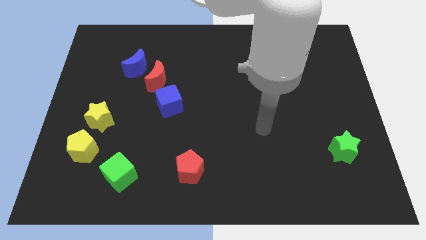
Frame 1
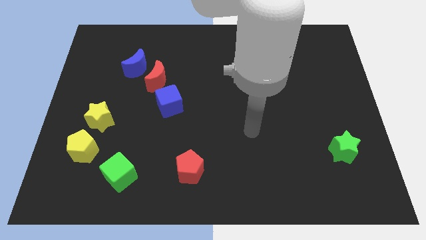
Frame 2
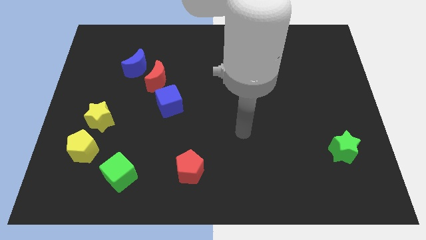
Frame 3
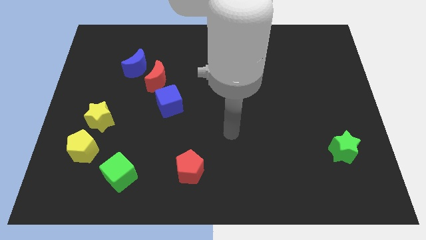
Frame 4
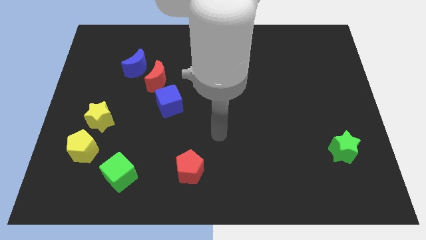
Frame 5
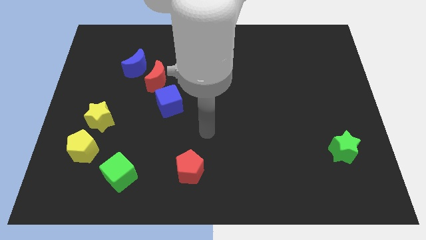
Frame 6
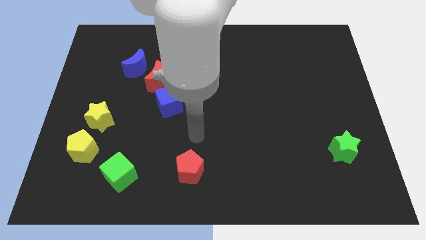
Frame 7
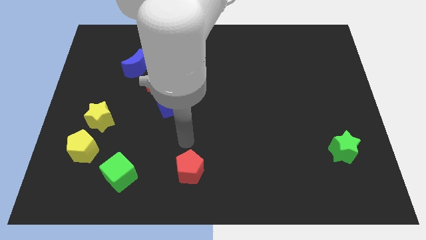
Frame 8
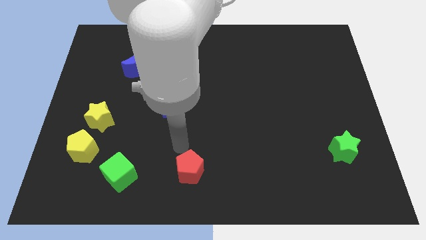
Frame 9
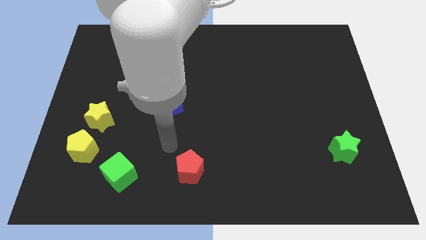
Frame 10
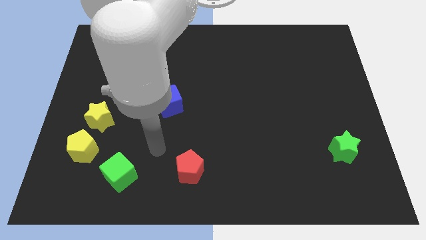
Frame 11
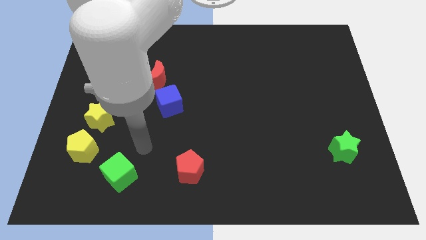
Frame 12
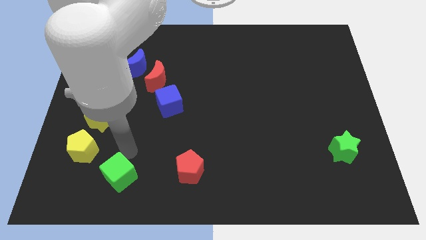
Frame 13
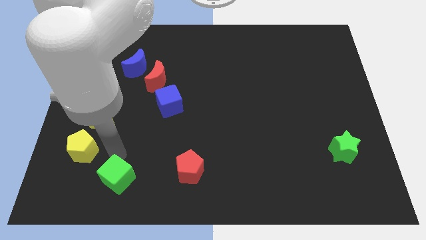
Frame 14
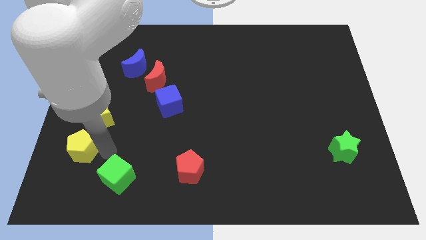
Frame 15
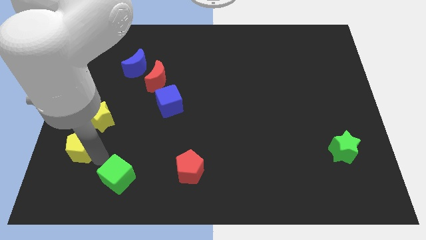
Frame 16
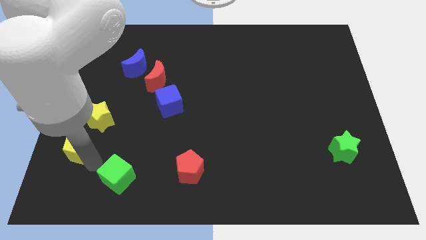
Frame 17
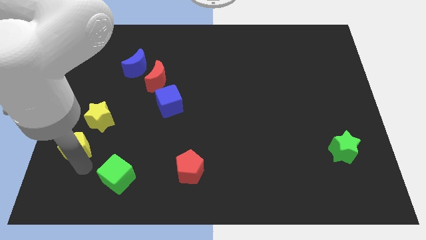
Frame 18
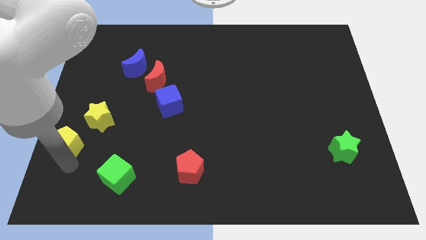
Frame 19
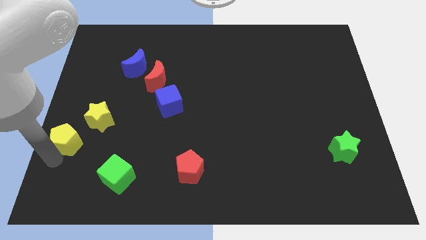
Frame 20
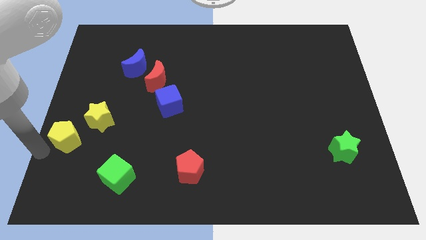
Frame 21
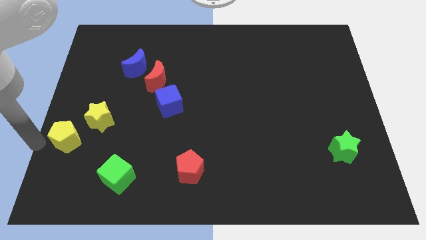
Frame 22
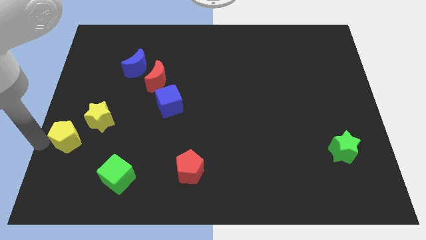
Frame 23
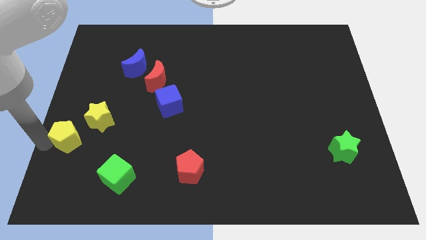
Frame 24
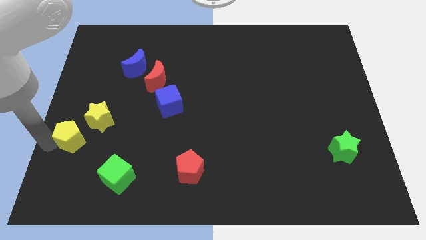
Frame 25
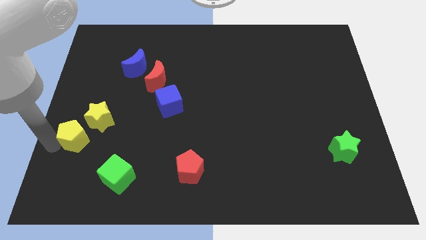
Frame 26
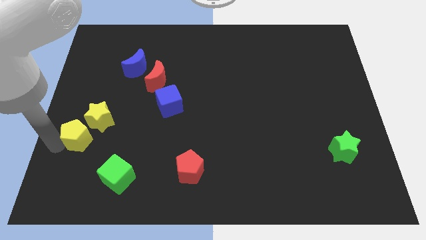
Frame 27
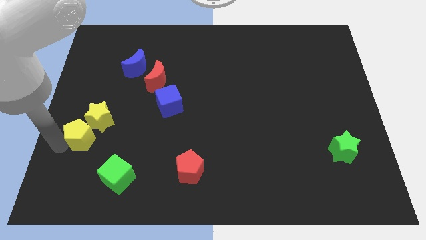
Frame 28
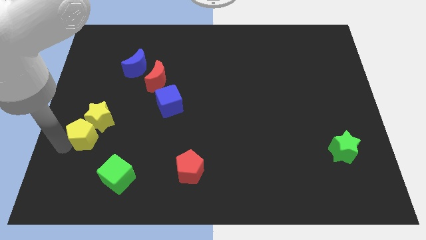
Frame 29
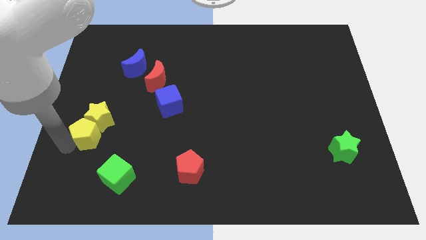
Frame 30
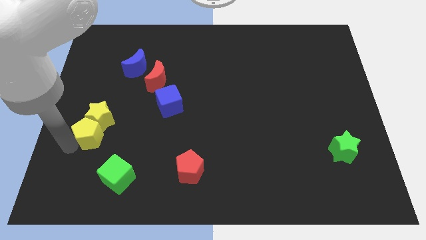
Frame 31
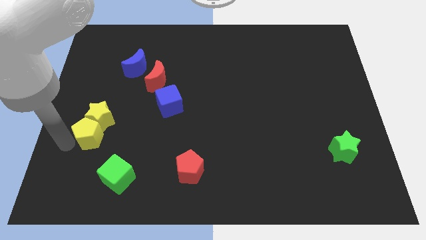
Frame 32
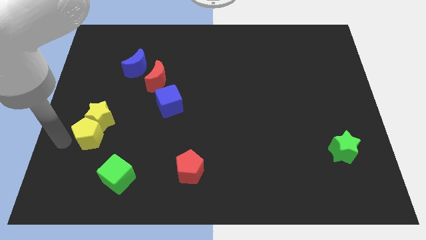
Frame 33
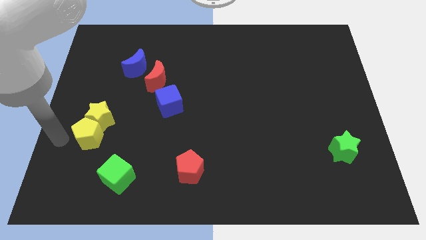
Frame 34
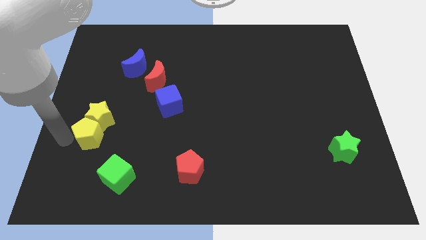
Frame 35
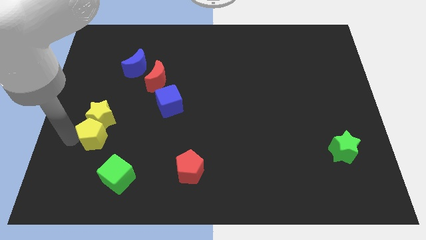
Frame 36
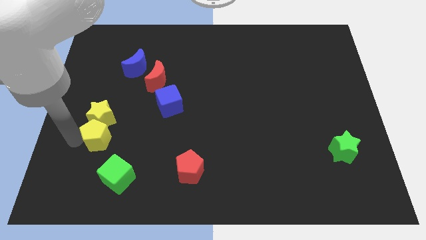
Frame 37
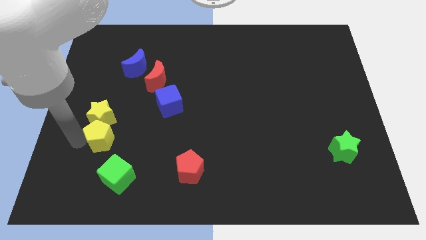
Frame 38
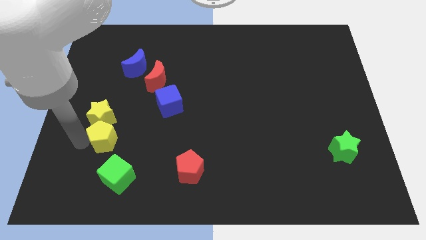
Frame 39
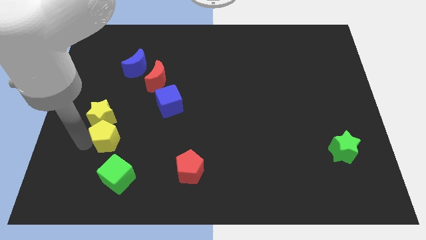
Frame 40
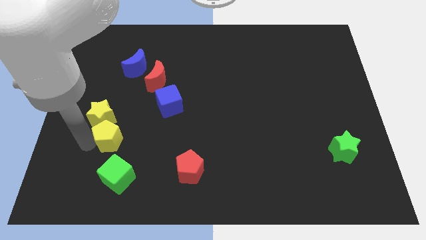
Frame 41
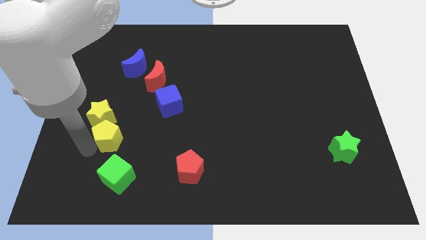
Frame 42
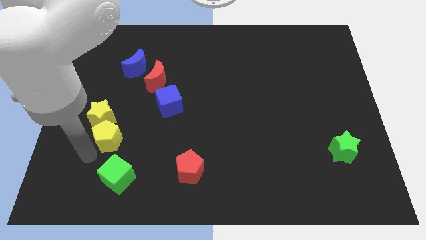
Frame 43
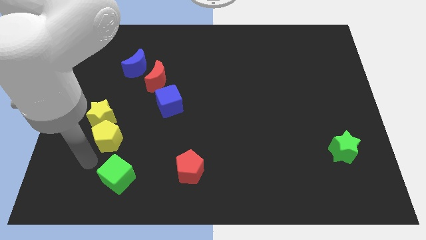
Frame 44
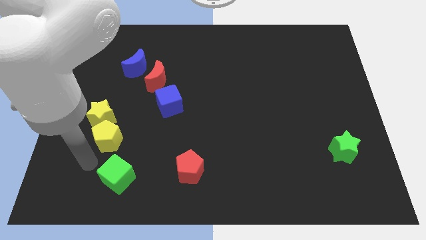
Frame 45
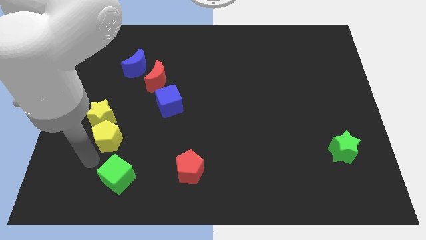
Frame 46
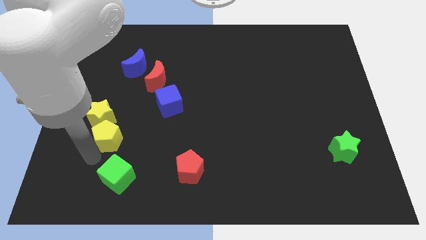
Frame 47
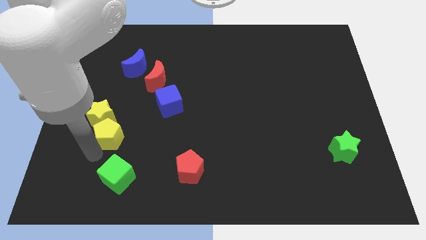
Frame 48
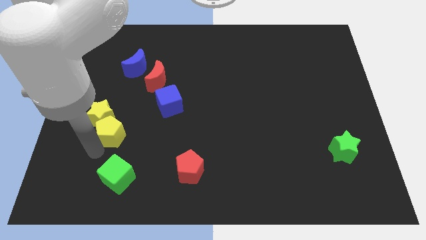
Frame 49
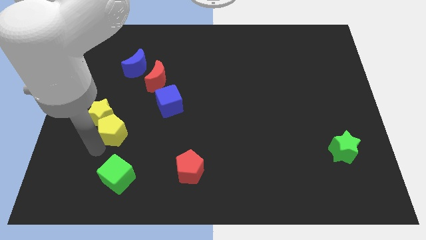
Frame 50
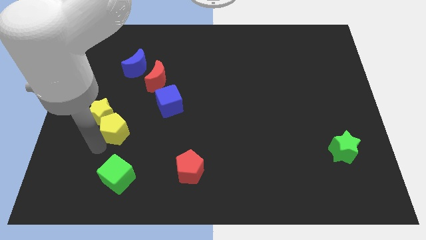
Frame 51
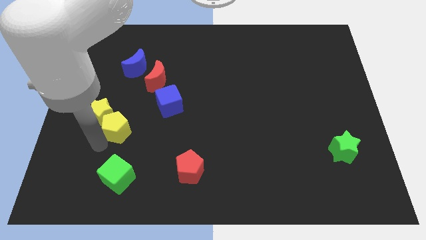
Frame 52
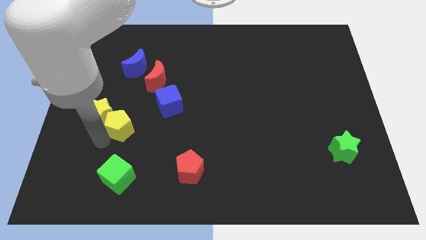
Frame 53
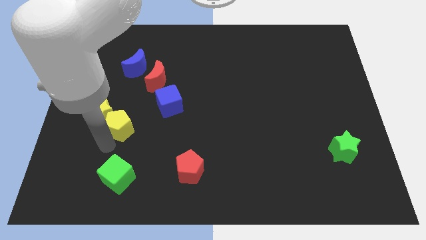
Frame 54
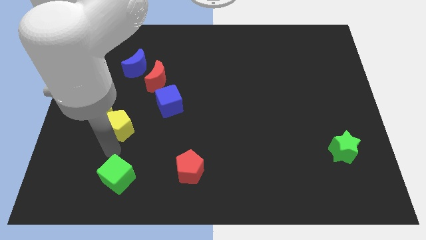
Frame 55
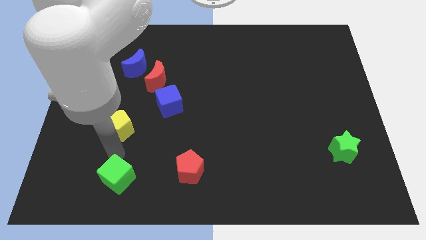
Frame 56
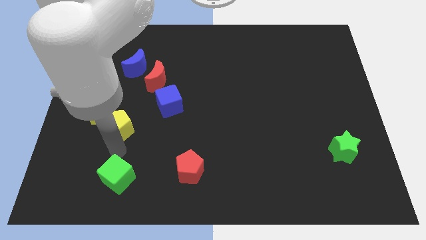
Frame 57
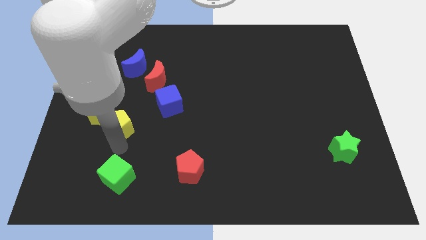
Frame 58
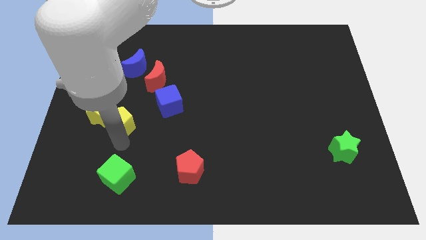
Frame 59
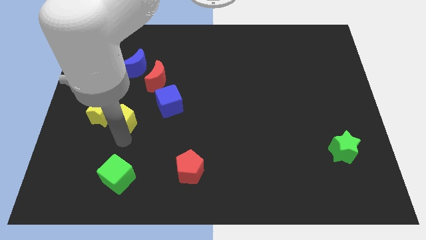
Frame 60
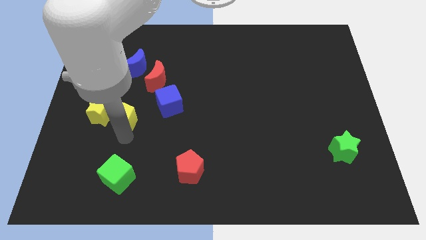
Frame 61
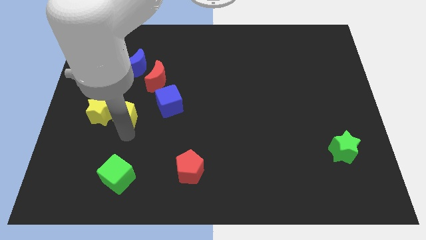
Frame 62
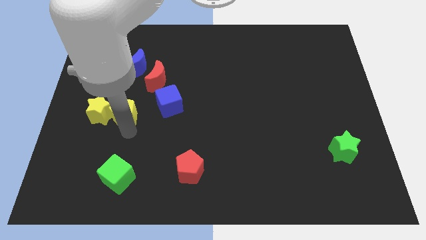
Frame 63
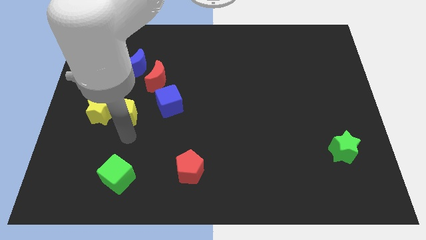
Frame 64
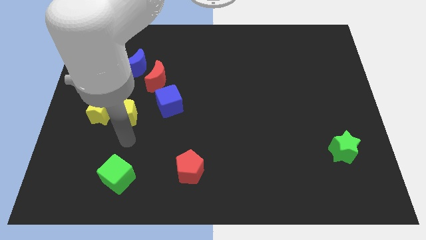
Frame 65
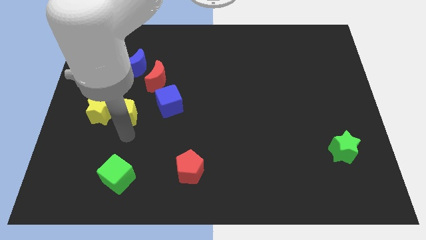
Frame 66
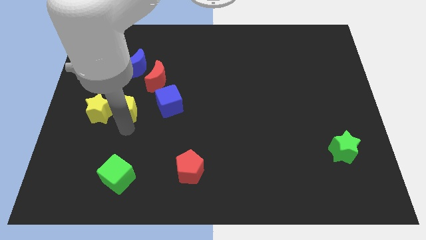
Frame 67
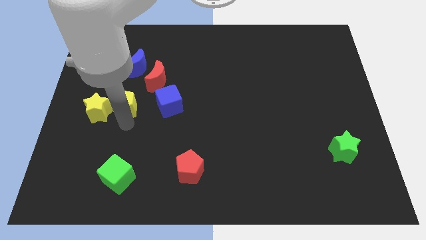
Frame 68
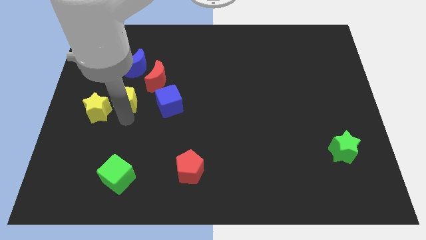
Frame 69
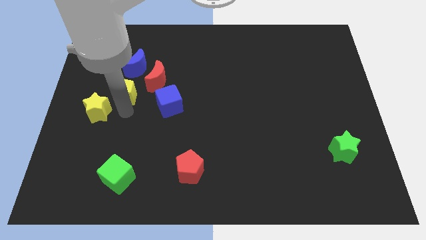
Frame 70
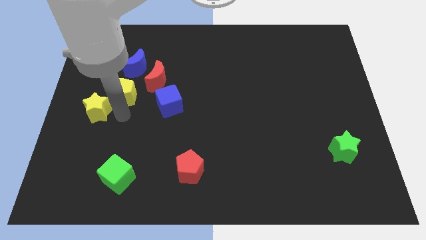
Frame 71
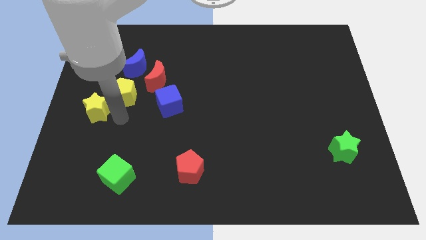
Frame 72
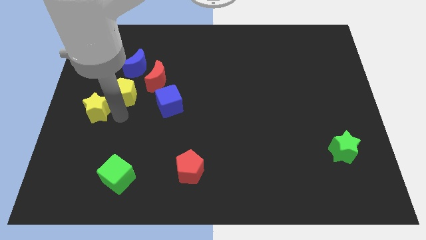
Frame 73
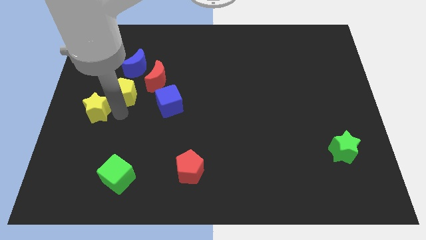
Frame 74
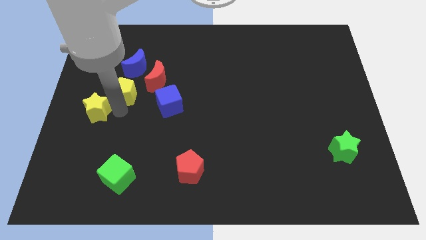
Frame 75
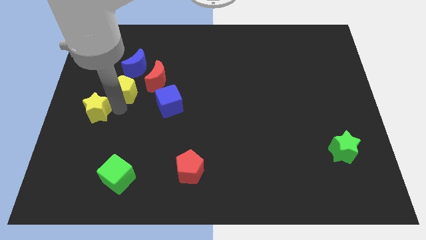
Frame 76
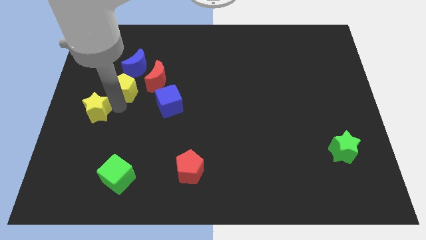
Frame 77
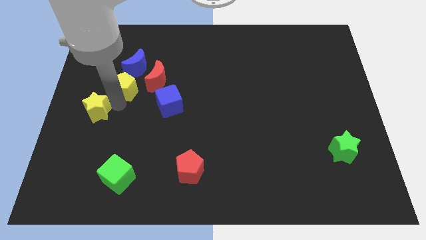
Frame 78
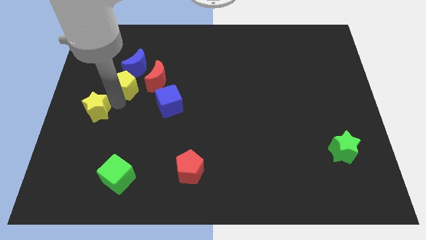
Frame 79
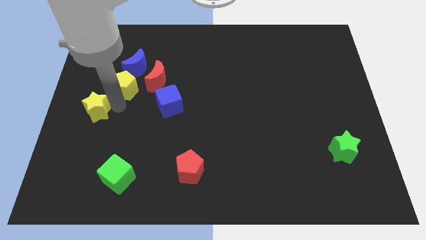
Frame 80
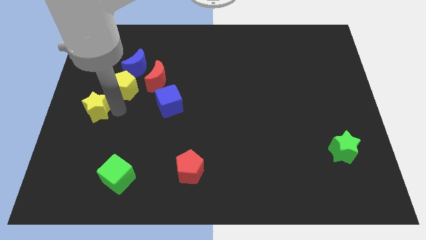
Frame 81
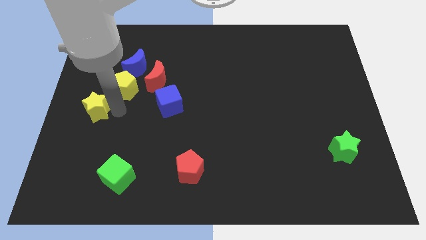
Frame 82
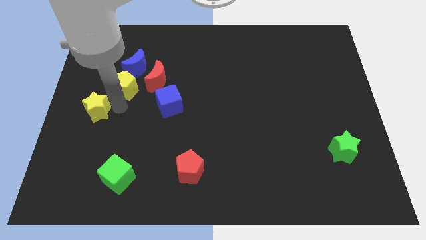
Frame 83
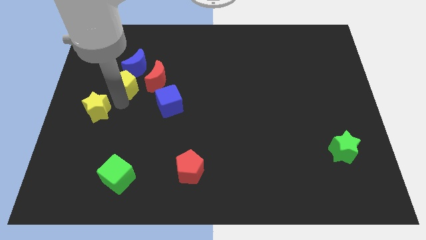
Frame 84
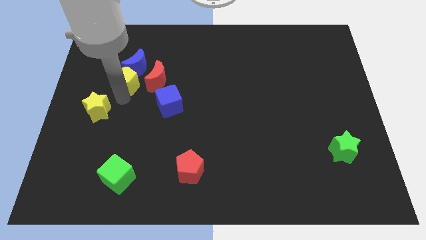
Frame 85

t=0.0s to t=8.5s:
slide the yellow pentagon towards the blue moon
